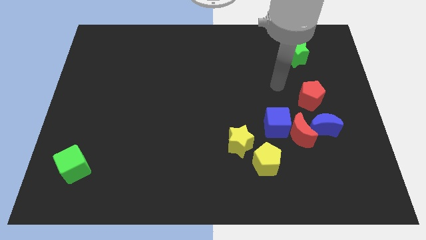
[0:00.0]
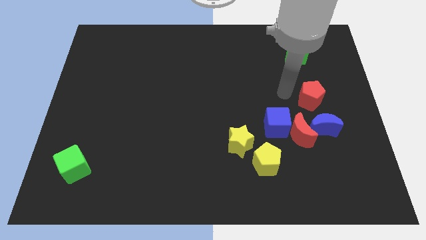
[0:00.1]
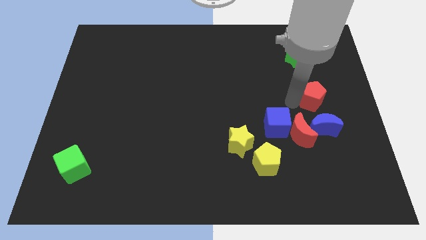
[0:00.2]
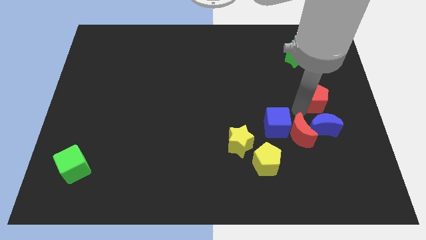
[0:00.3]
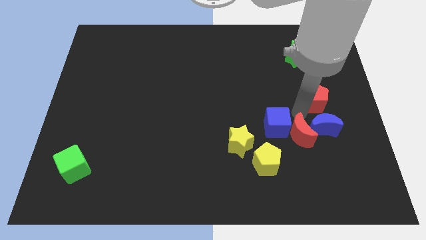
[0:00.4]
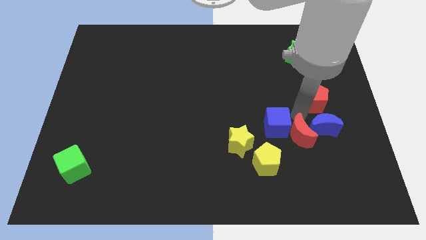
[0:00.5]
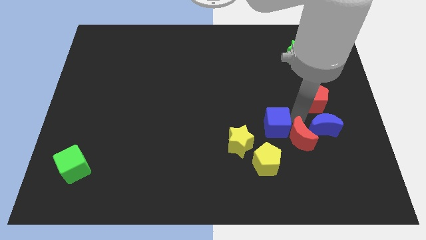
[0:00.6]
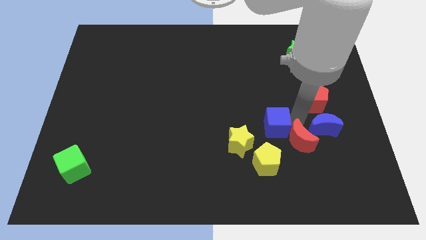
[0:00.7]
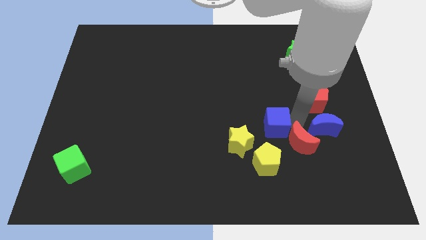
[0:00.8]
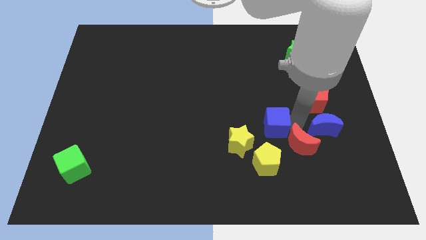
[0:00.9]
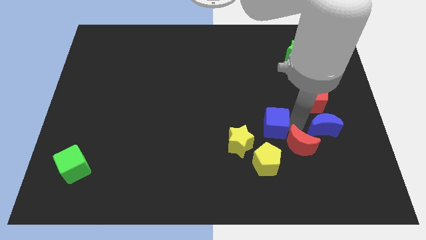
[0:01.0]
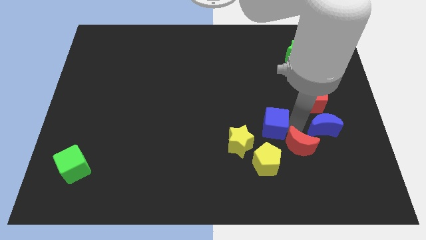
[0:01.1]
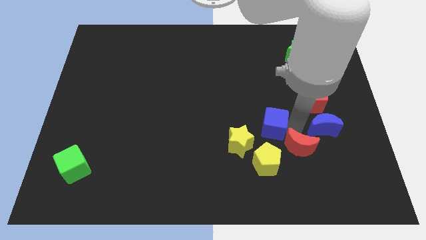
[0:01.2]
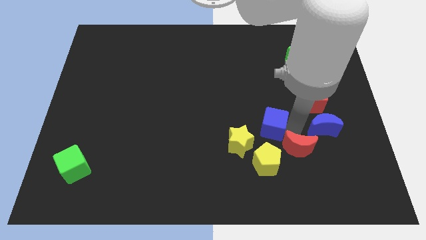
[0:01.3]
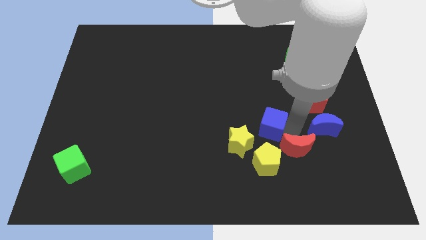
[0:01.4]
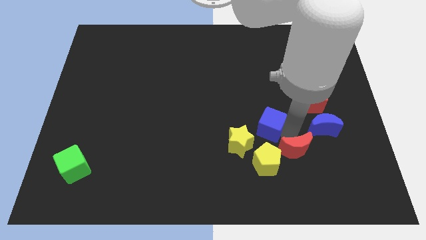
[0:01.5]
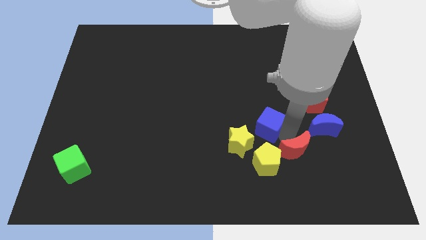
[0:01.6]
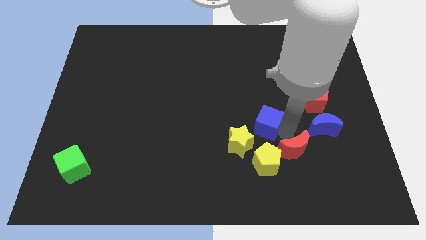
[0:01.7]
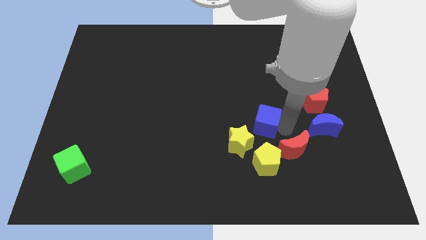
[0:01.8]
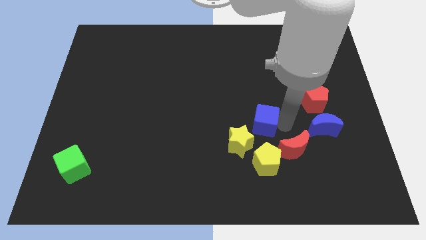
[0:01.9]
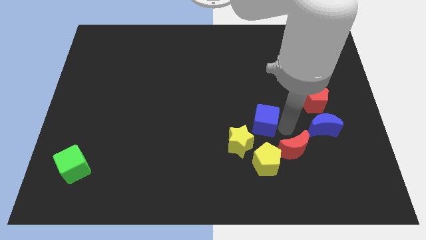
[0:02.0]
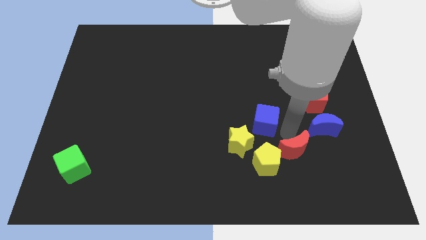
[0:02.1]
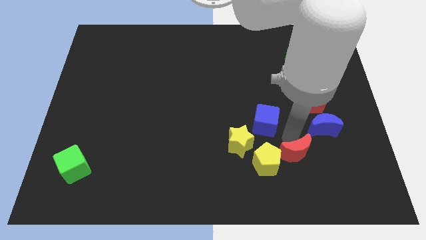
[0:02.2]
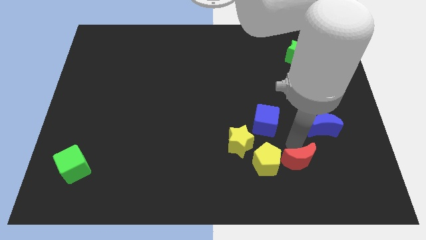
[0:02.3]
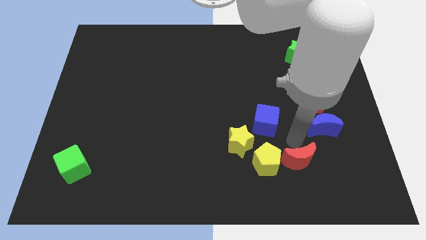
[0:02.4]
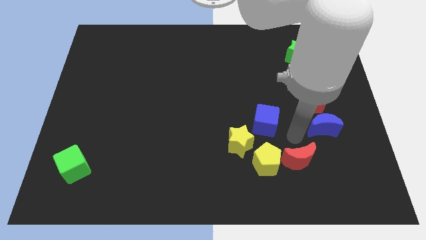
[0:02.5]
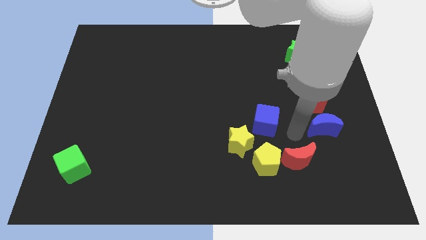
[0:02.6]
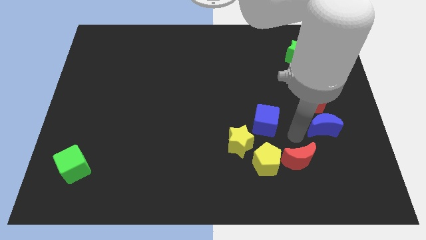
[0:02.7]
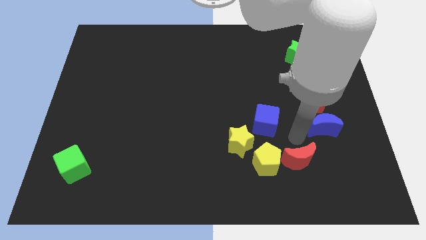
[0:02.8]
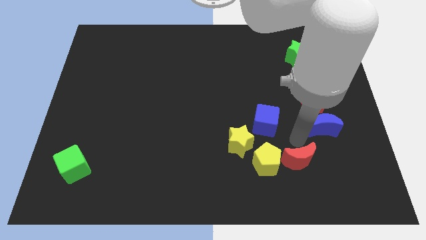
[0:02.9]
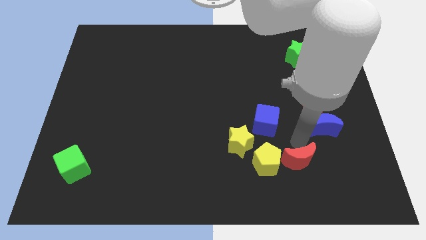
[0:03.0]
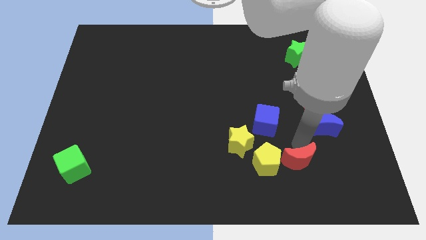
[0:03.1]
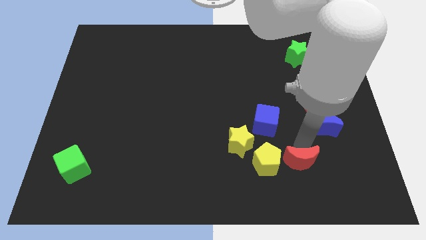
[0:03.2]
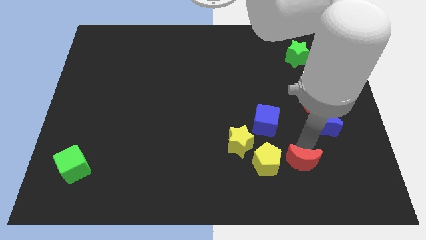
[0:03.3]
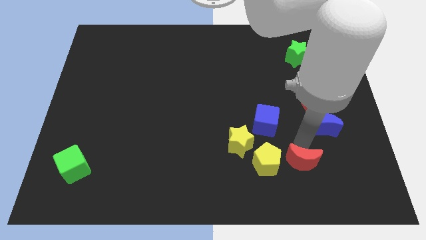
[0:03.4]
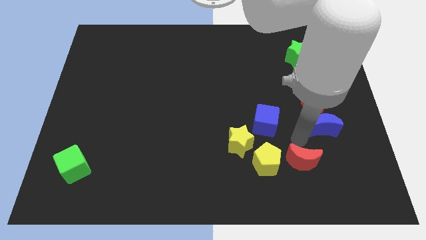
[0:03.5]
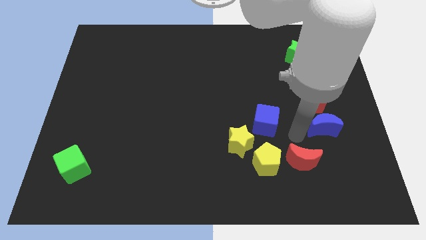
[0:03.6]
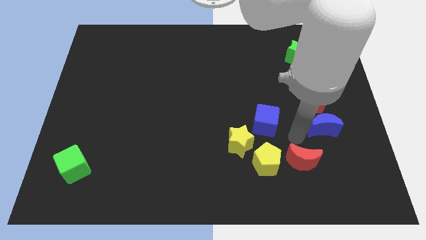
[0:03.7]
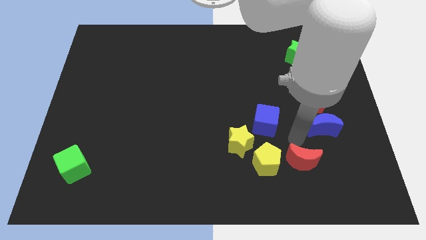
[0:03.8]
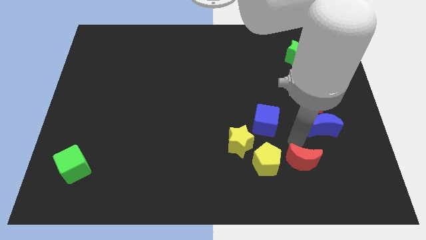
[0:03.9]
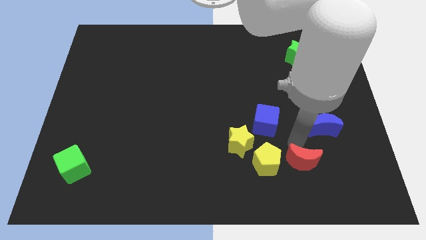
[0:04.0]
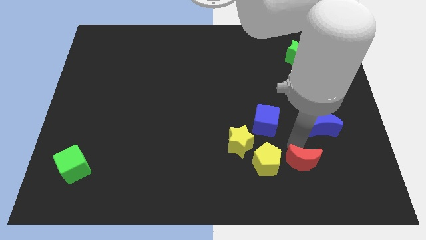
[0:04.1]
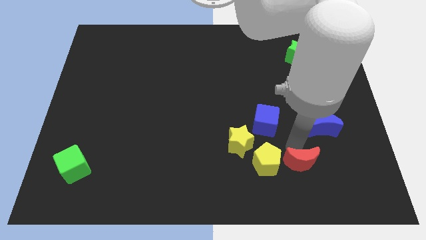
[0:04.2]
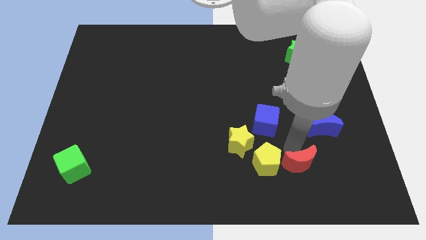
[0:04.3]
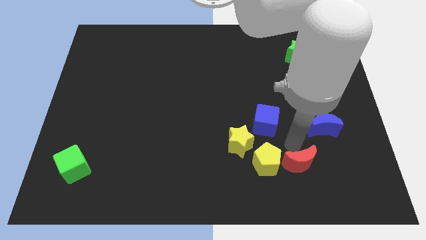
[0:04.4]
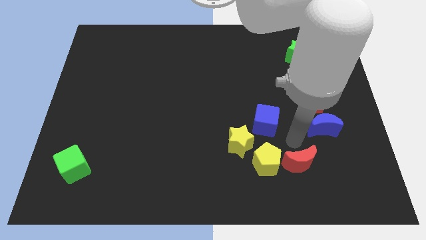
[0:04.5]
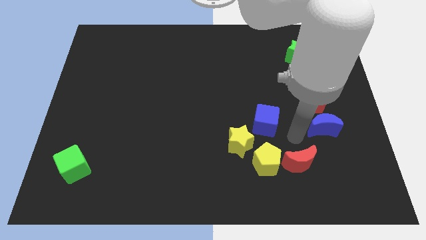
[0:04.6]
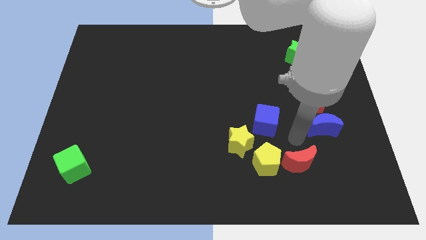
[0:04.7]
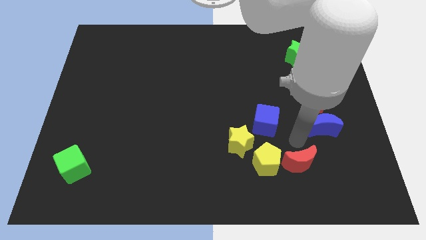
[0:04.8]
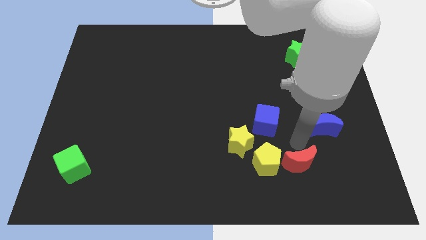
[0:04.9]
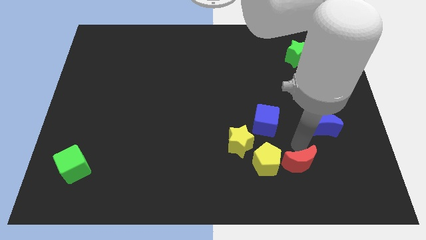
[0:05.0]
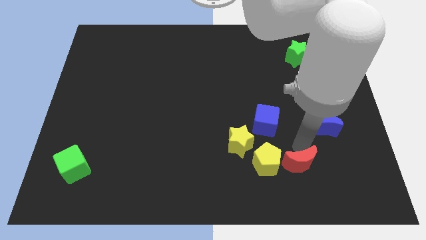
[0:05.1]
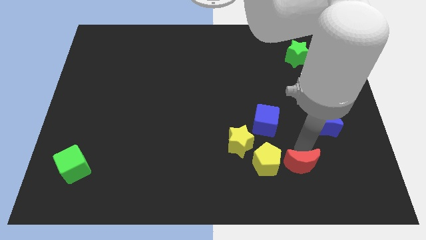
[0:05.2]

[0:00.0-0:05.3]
separate the red moon from the blue cube and blue moon

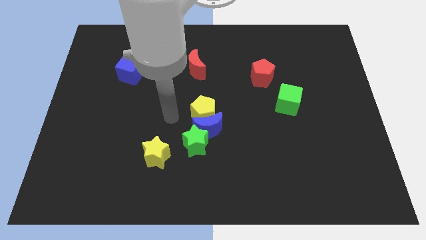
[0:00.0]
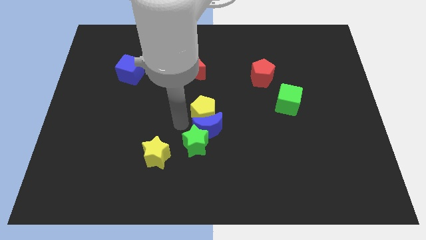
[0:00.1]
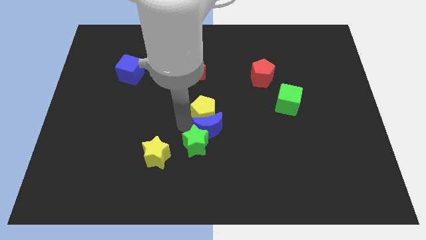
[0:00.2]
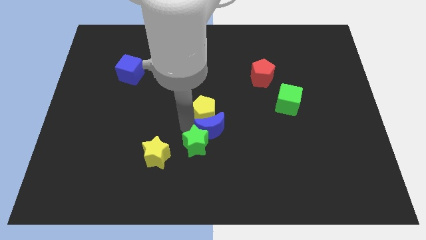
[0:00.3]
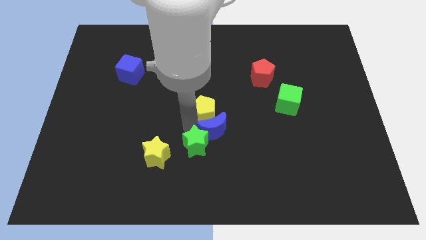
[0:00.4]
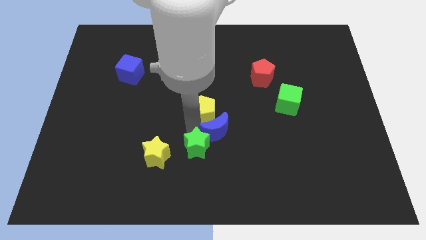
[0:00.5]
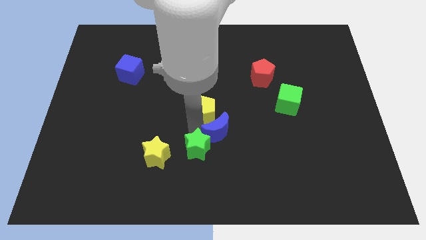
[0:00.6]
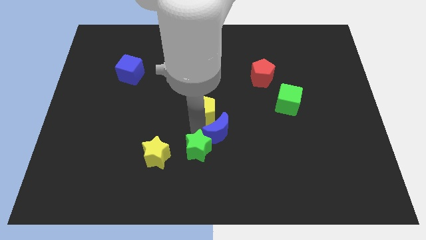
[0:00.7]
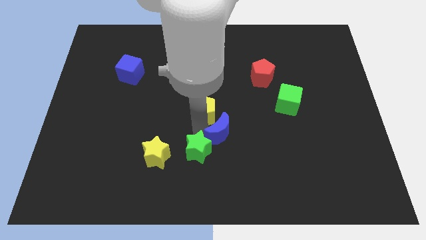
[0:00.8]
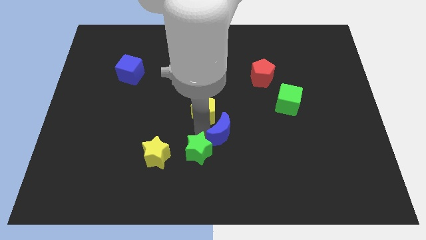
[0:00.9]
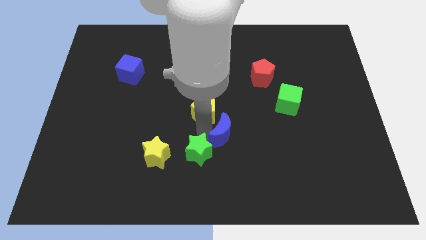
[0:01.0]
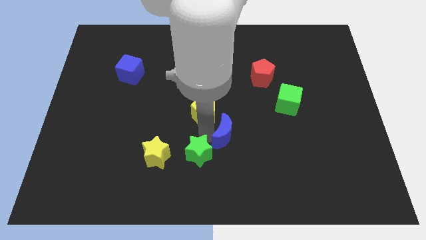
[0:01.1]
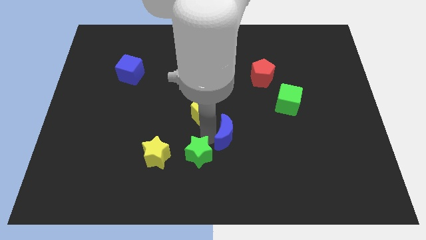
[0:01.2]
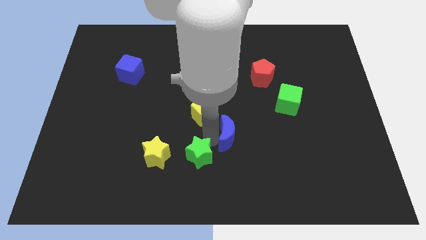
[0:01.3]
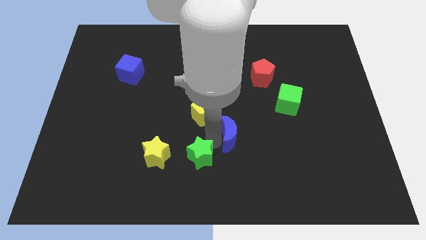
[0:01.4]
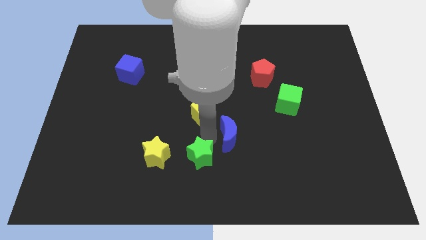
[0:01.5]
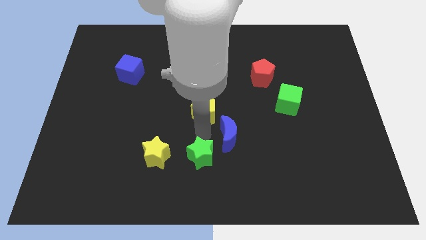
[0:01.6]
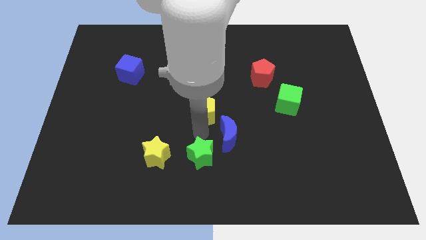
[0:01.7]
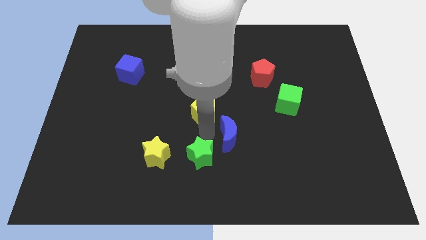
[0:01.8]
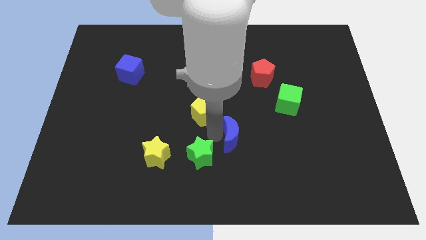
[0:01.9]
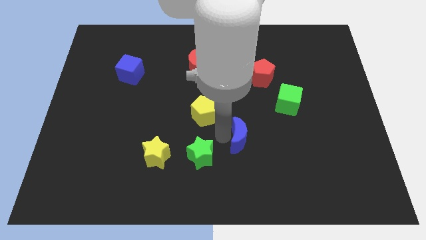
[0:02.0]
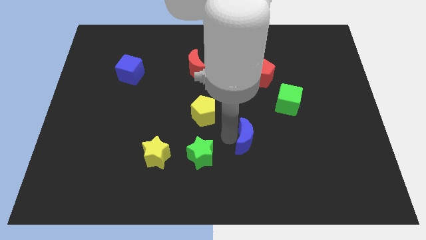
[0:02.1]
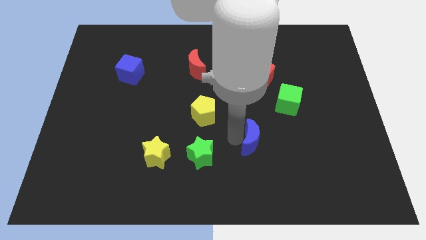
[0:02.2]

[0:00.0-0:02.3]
pull the blue moon apart from the yellow pentagon and green star

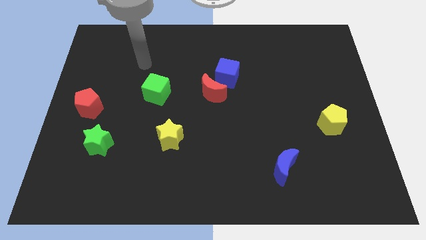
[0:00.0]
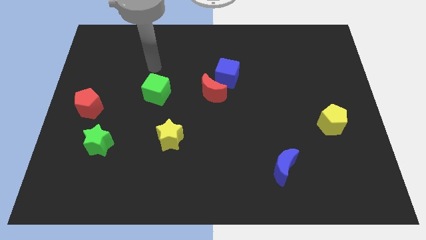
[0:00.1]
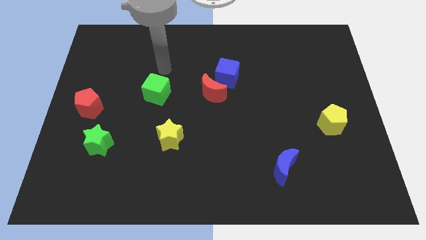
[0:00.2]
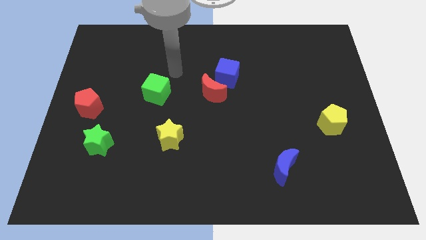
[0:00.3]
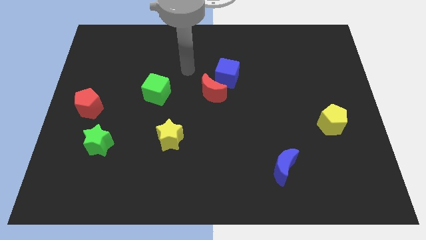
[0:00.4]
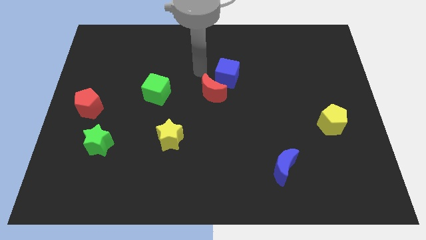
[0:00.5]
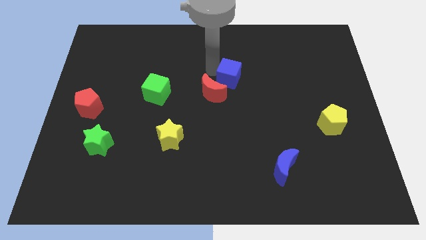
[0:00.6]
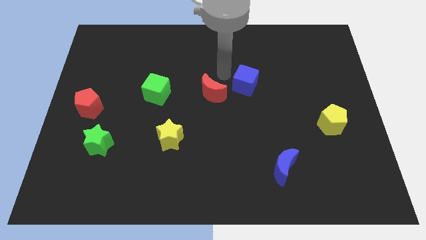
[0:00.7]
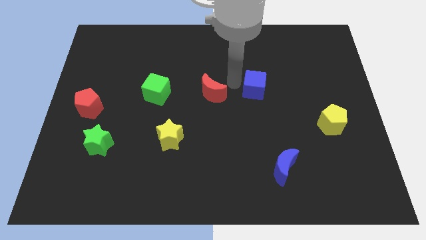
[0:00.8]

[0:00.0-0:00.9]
move the red moon away from the blue cube

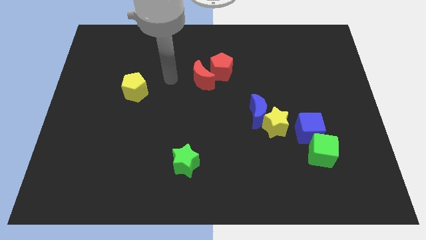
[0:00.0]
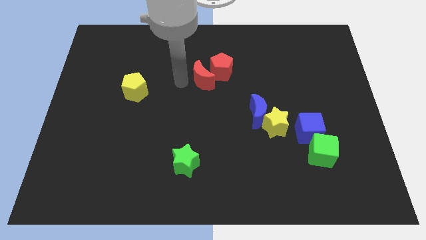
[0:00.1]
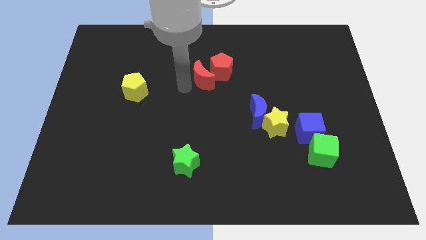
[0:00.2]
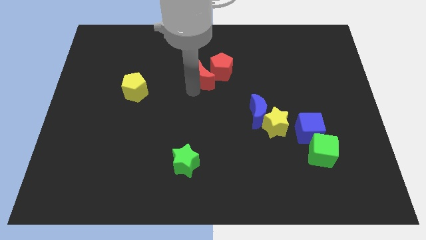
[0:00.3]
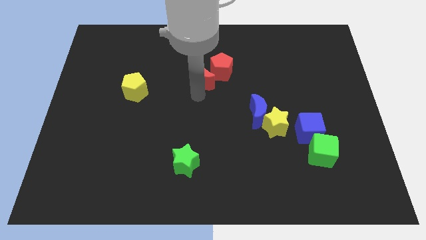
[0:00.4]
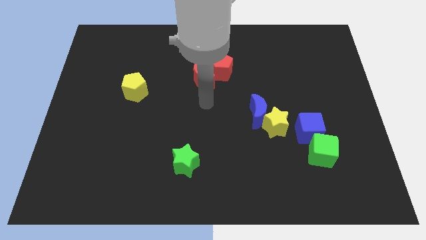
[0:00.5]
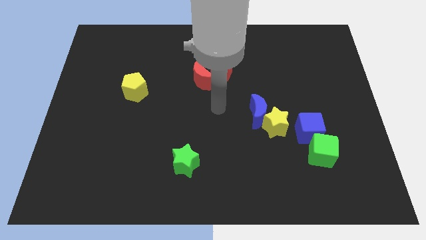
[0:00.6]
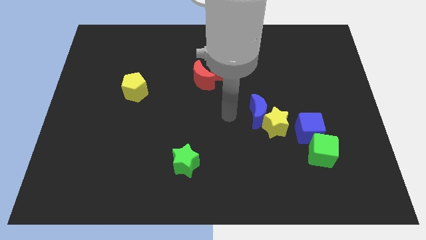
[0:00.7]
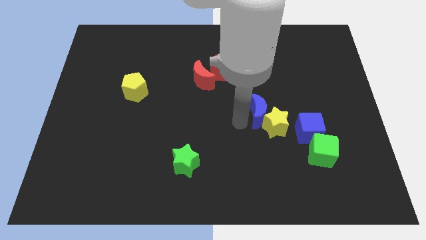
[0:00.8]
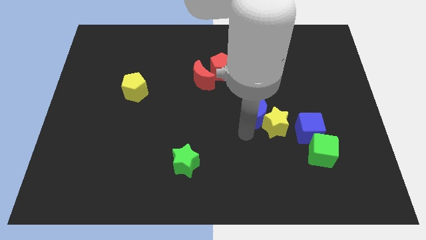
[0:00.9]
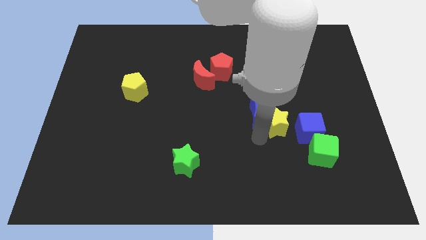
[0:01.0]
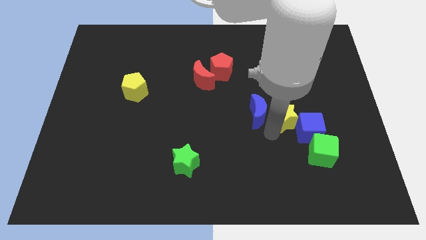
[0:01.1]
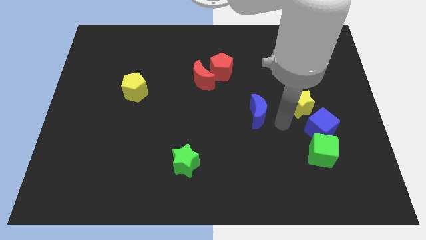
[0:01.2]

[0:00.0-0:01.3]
move the blue moon away from the yellow star
